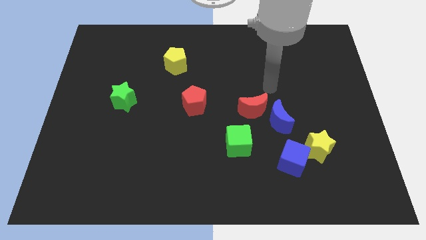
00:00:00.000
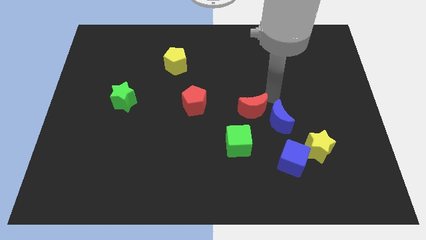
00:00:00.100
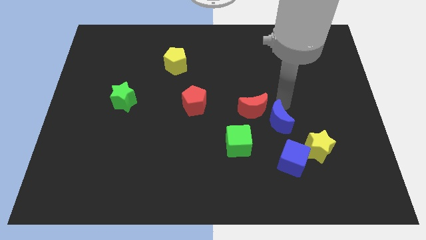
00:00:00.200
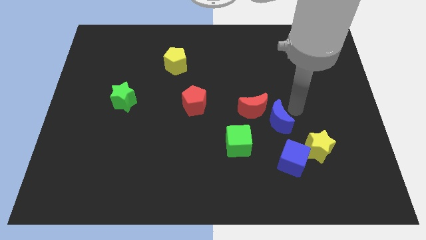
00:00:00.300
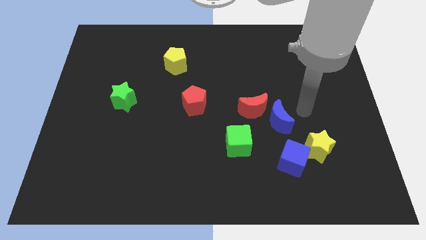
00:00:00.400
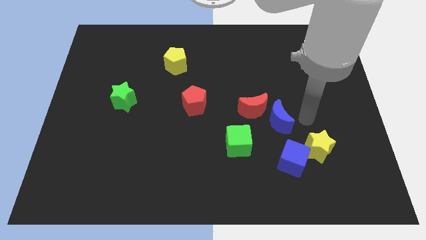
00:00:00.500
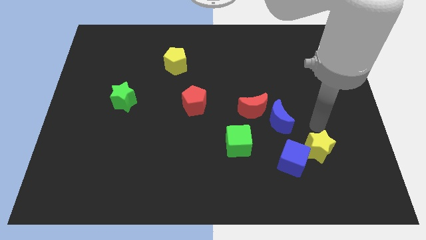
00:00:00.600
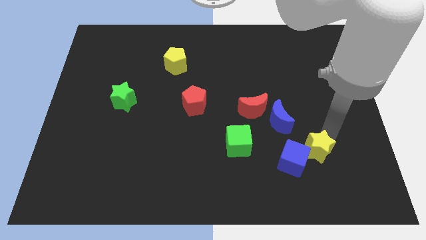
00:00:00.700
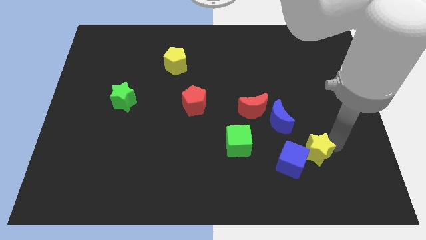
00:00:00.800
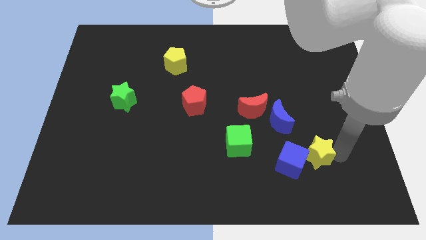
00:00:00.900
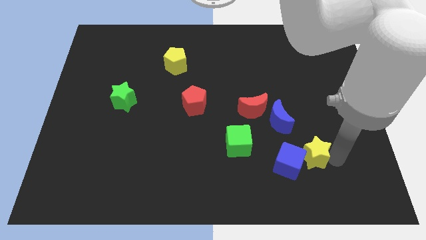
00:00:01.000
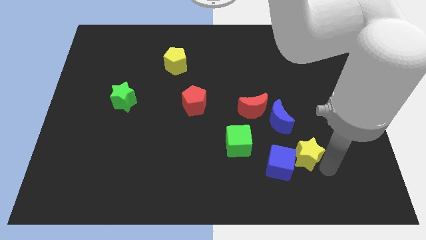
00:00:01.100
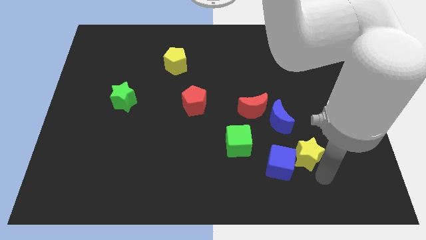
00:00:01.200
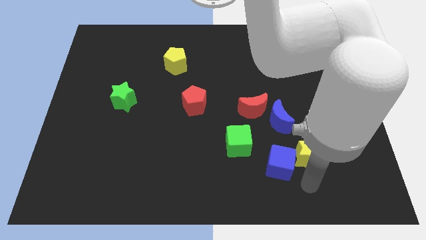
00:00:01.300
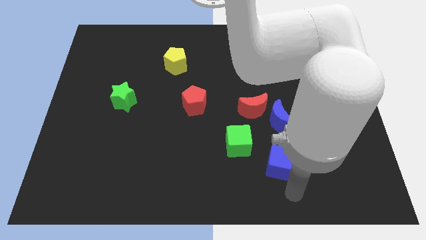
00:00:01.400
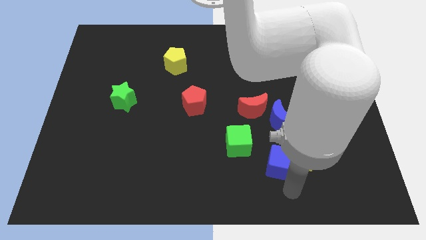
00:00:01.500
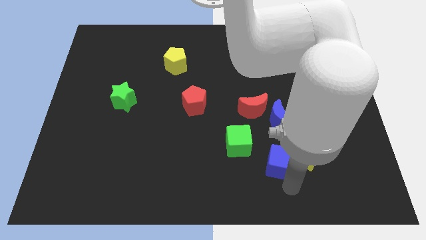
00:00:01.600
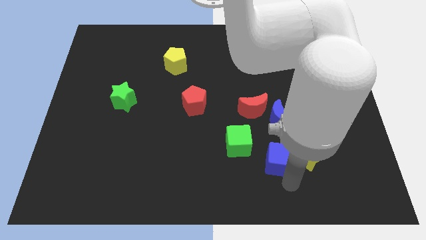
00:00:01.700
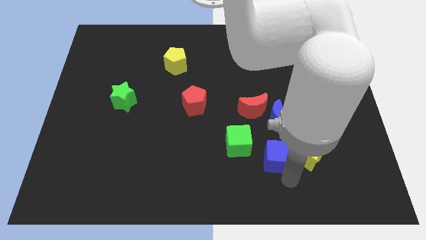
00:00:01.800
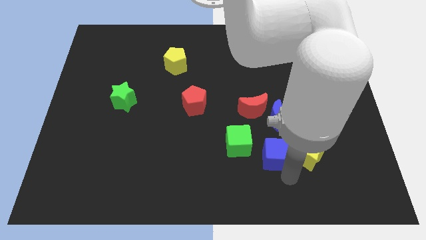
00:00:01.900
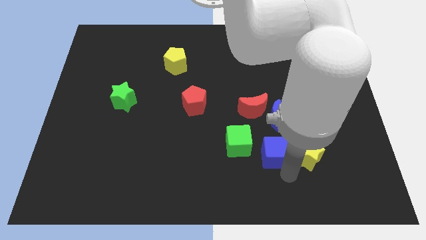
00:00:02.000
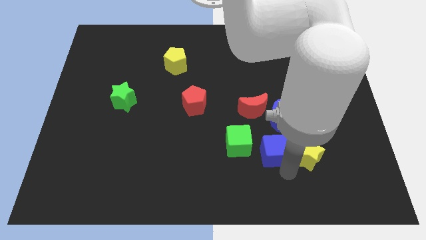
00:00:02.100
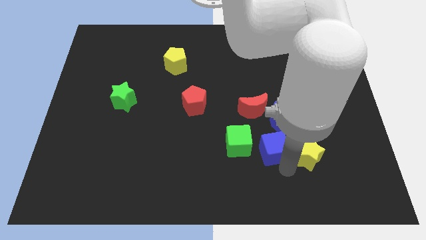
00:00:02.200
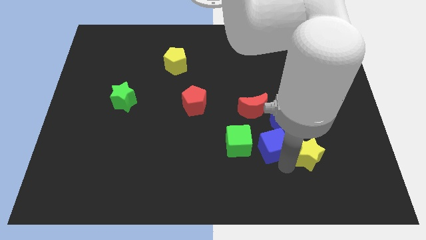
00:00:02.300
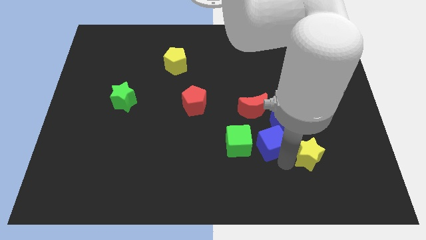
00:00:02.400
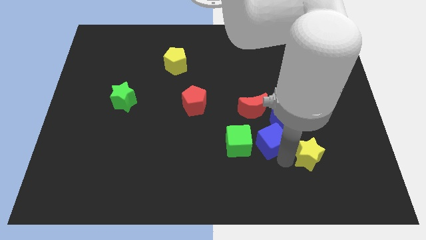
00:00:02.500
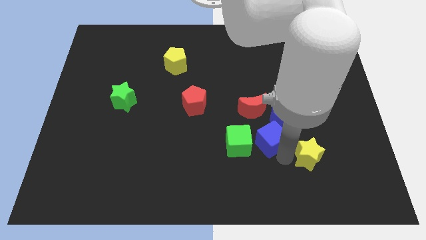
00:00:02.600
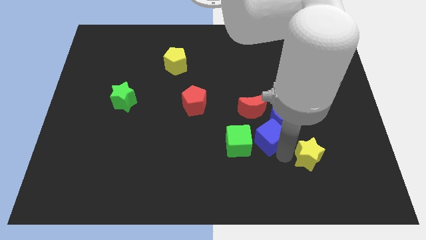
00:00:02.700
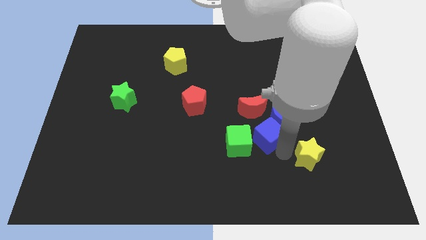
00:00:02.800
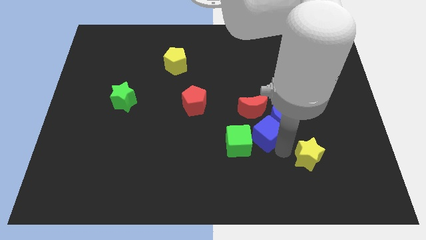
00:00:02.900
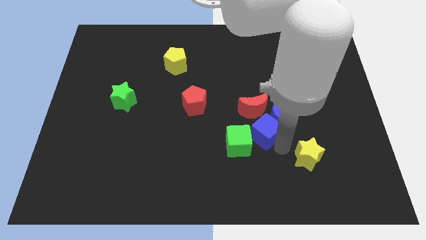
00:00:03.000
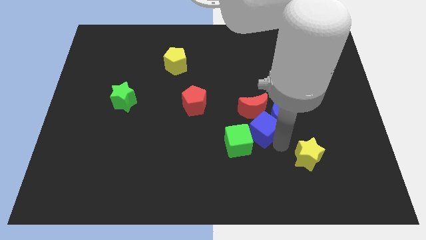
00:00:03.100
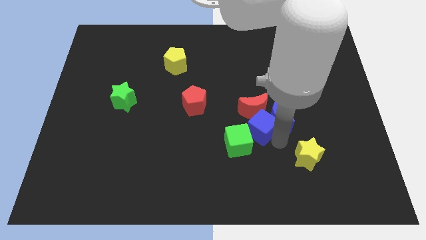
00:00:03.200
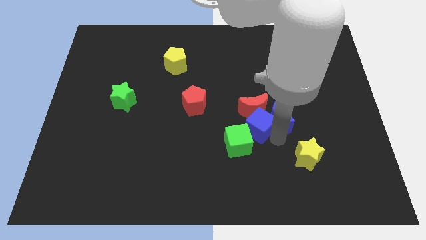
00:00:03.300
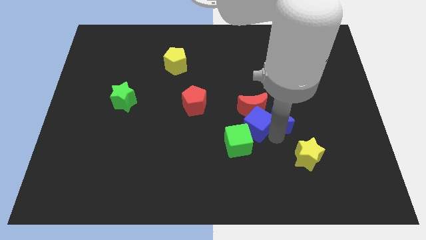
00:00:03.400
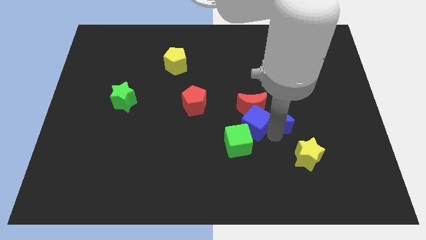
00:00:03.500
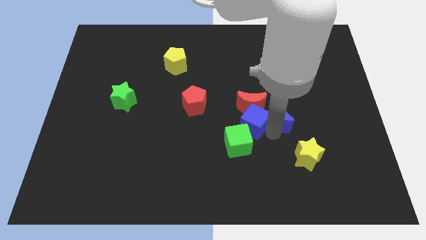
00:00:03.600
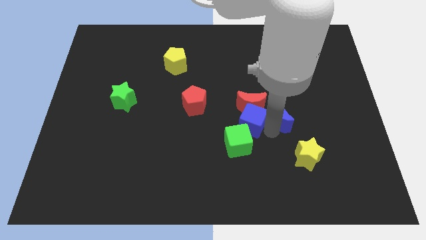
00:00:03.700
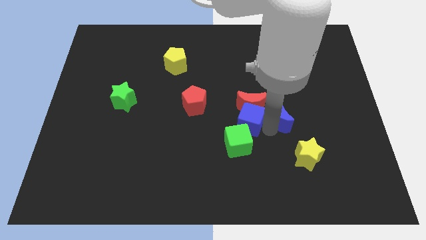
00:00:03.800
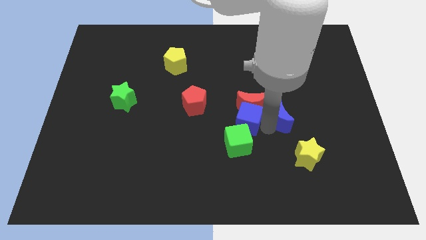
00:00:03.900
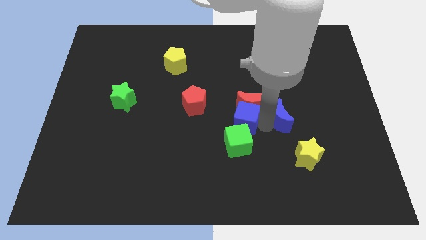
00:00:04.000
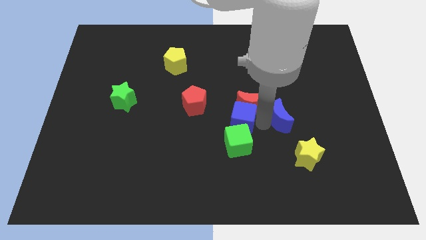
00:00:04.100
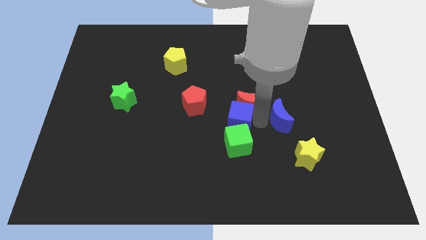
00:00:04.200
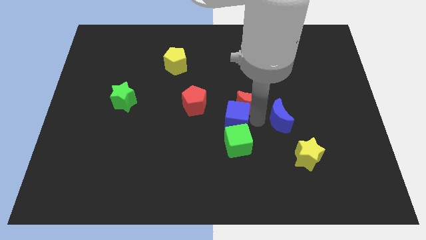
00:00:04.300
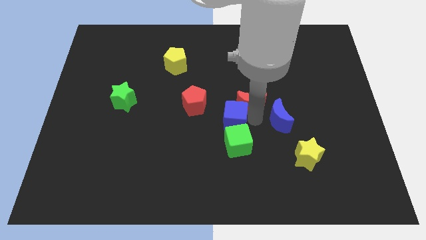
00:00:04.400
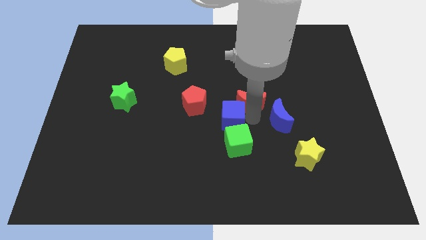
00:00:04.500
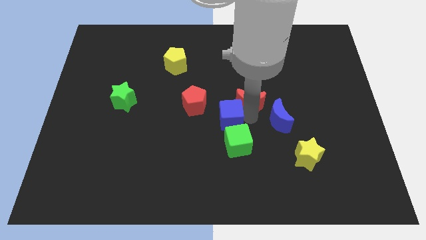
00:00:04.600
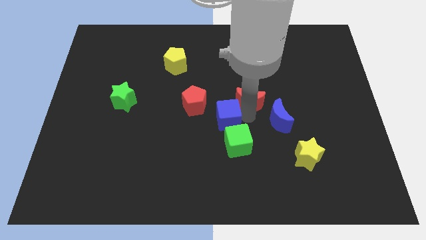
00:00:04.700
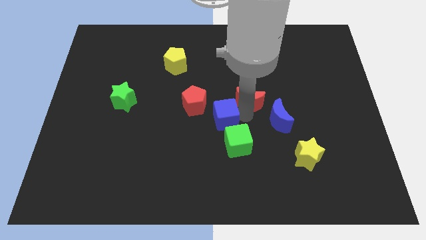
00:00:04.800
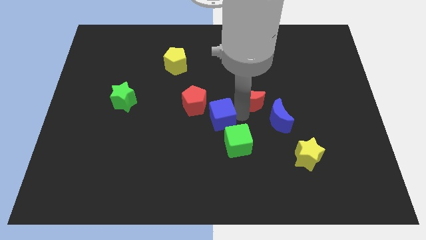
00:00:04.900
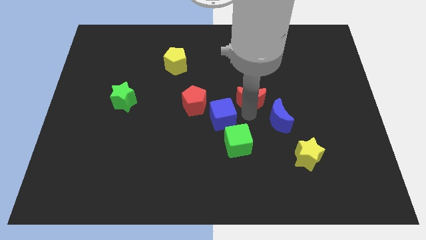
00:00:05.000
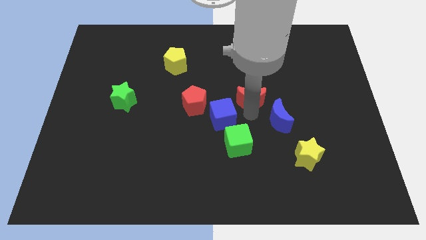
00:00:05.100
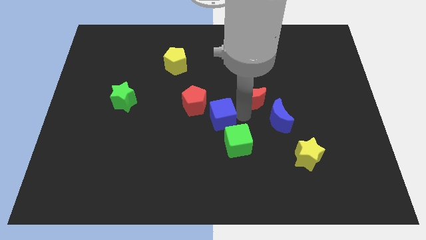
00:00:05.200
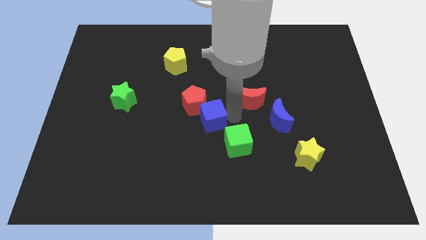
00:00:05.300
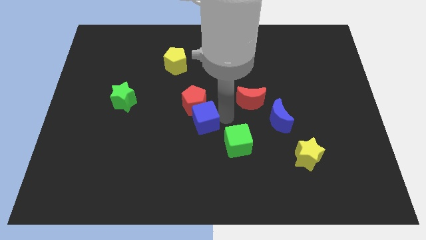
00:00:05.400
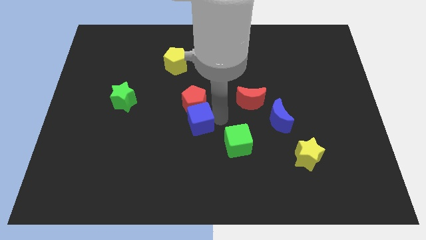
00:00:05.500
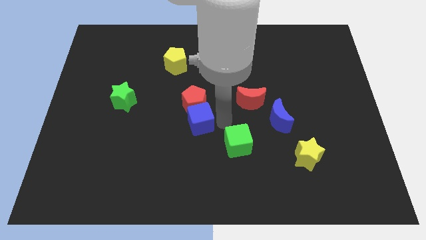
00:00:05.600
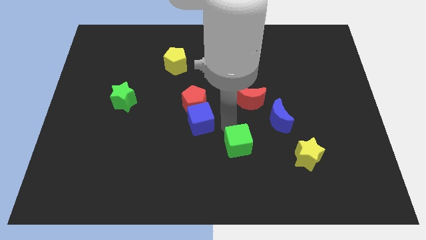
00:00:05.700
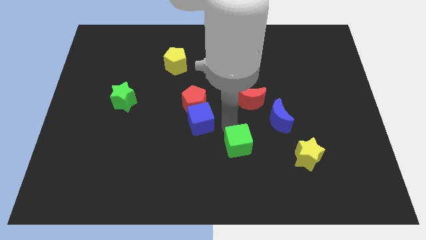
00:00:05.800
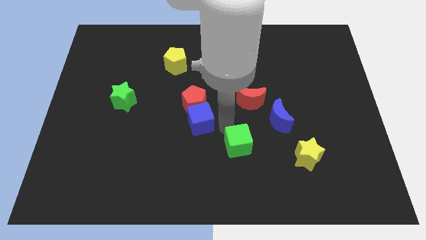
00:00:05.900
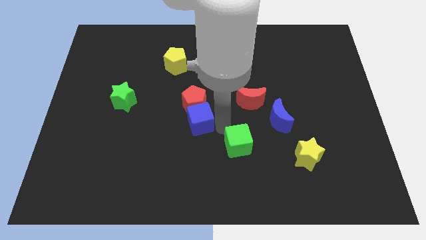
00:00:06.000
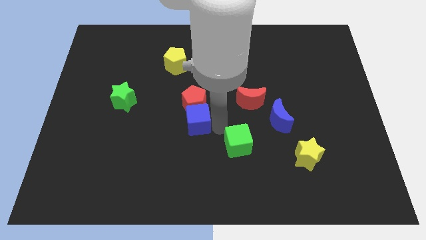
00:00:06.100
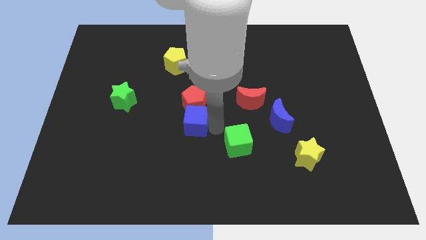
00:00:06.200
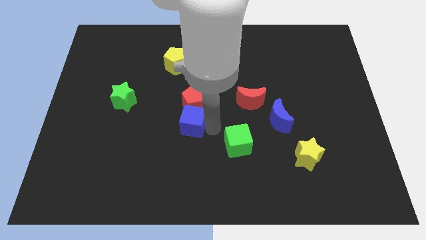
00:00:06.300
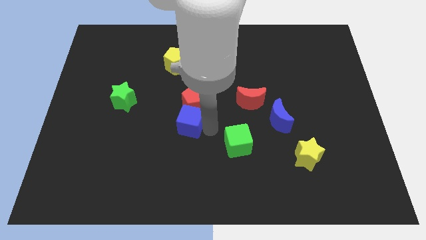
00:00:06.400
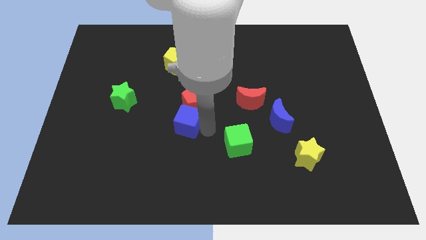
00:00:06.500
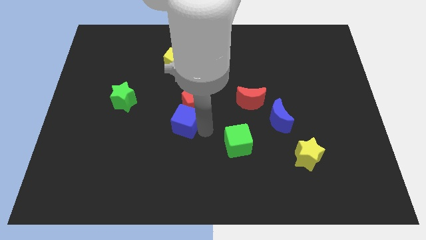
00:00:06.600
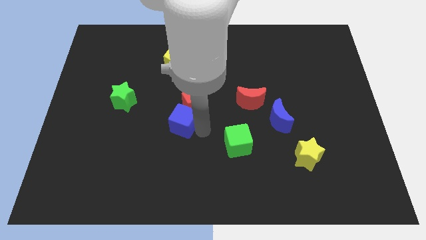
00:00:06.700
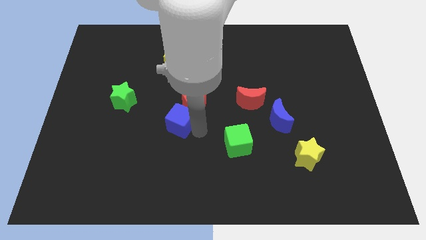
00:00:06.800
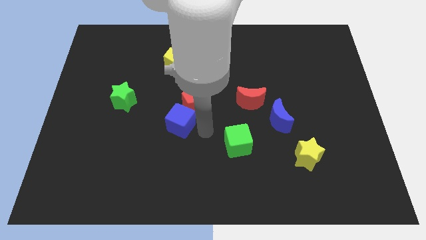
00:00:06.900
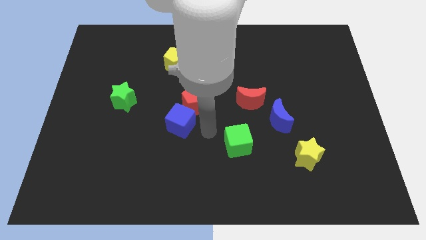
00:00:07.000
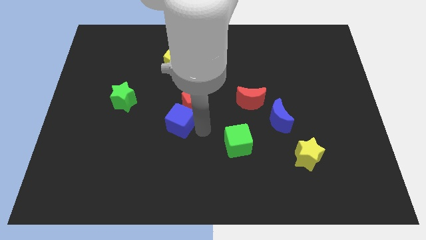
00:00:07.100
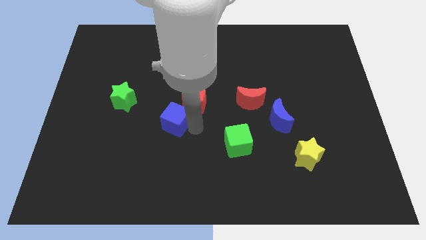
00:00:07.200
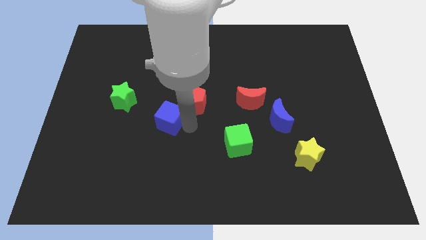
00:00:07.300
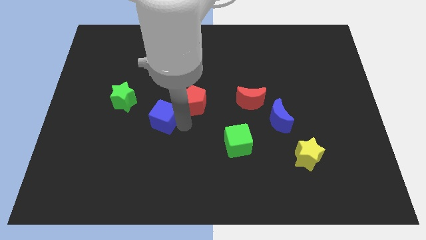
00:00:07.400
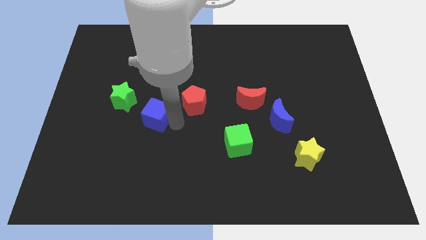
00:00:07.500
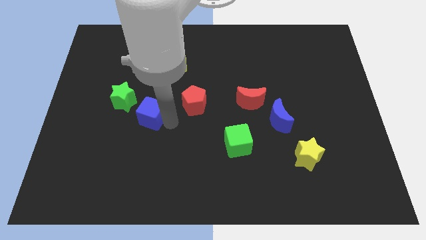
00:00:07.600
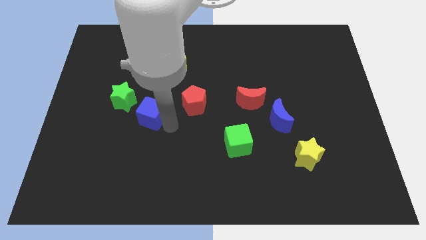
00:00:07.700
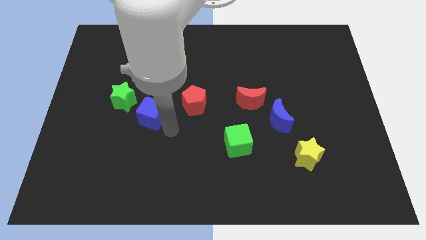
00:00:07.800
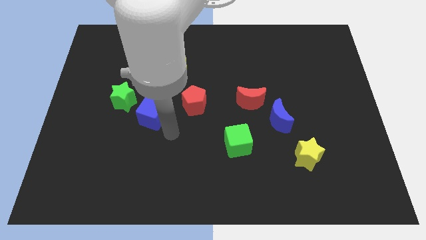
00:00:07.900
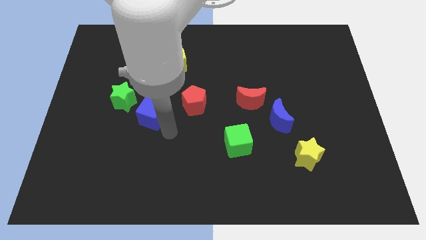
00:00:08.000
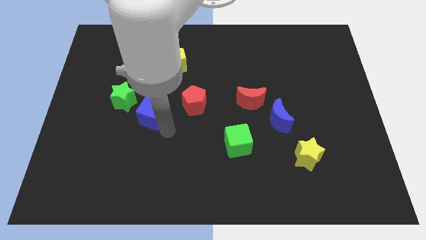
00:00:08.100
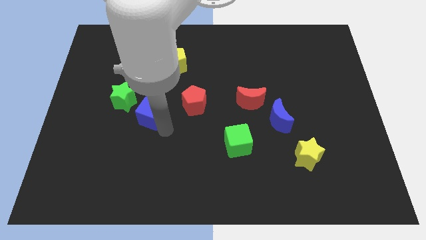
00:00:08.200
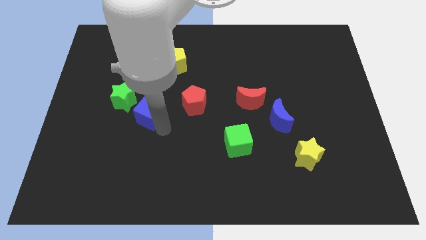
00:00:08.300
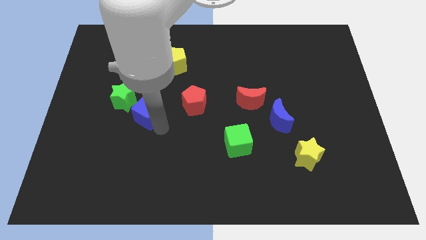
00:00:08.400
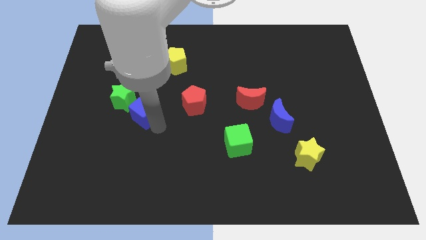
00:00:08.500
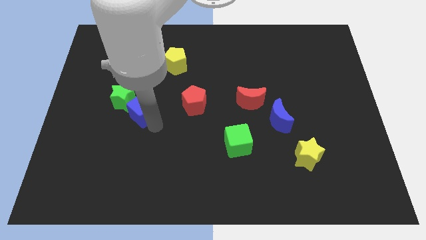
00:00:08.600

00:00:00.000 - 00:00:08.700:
put the blue cube next to the green star
